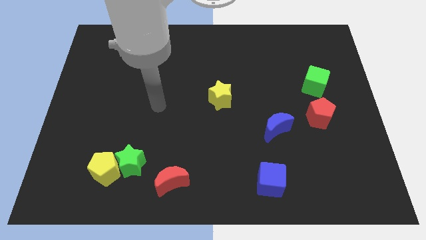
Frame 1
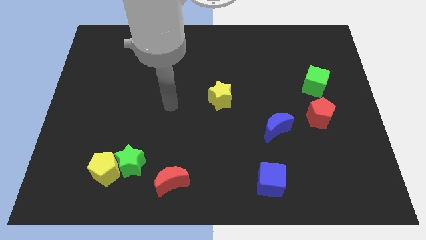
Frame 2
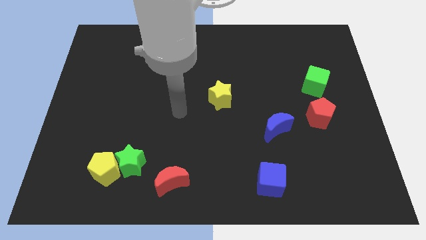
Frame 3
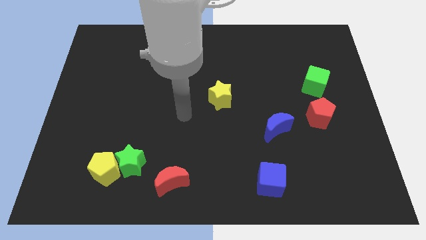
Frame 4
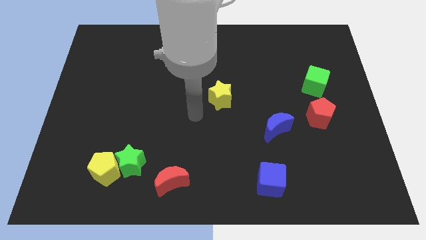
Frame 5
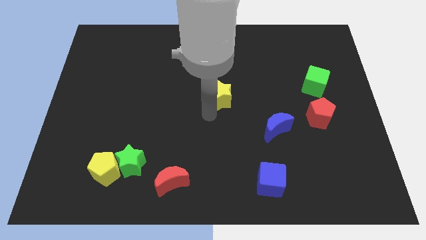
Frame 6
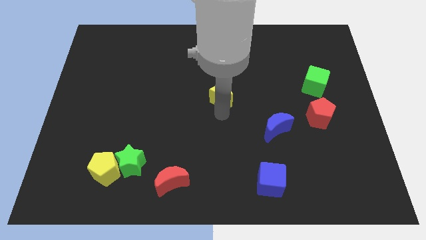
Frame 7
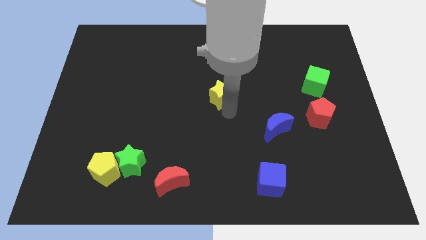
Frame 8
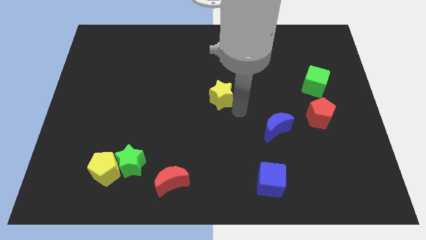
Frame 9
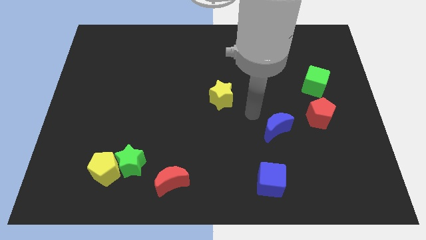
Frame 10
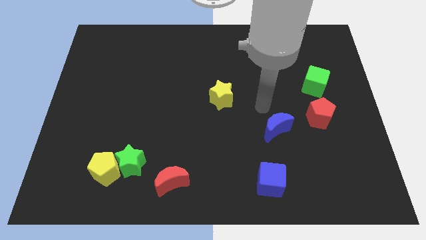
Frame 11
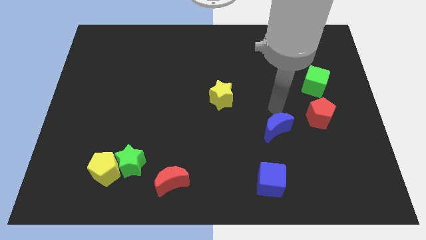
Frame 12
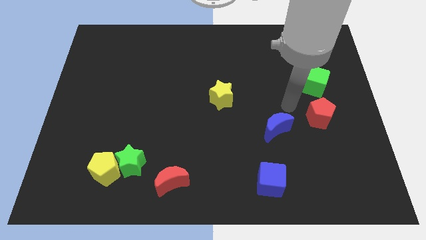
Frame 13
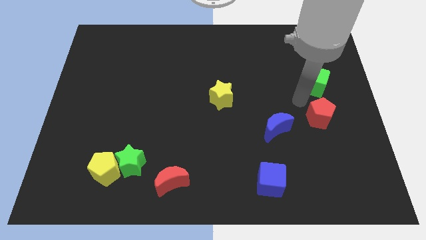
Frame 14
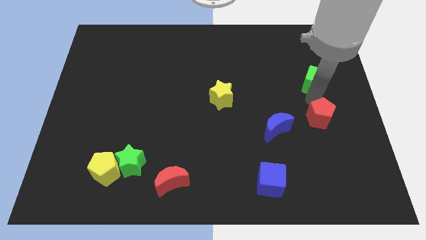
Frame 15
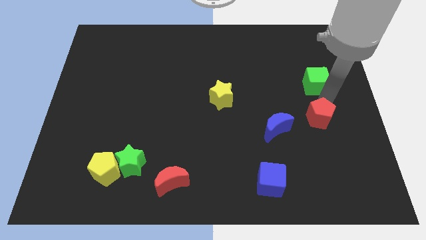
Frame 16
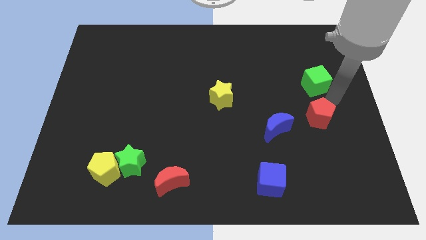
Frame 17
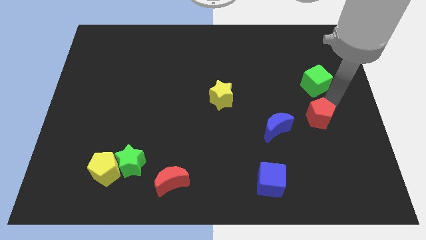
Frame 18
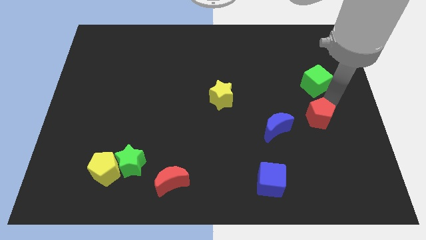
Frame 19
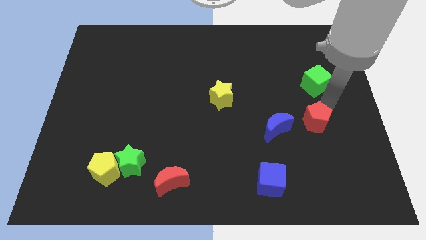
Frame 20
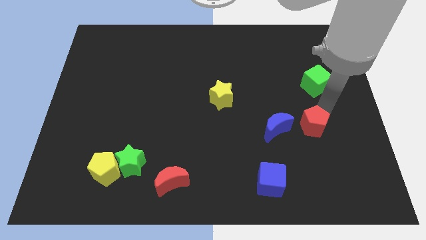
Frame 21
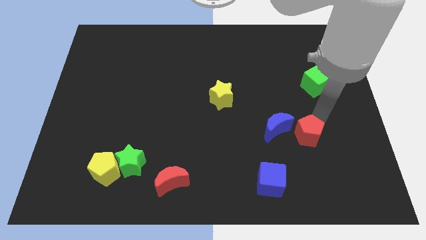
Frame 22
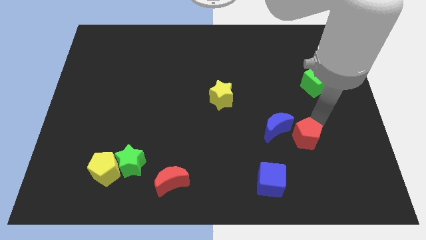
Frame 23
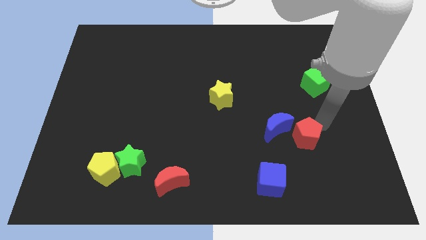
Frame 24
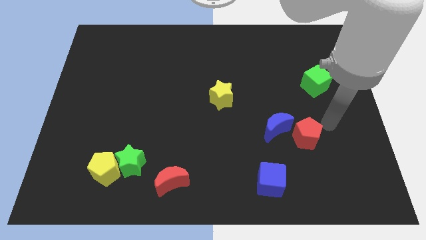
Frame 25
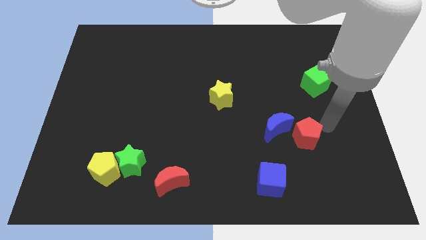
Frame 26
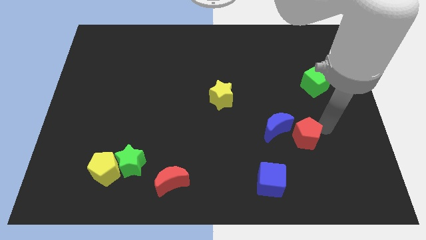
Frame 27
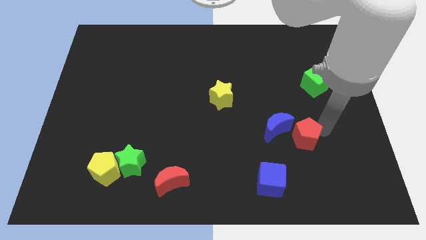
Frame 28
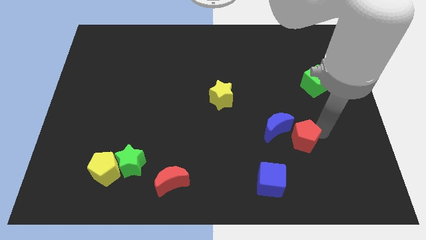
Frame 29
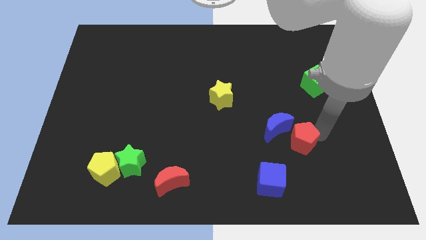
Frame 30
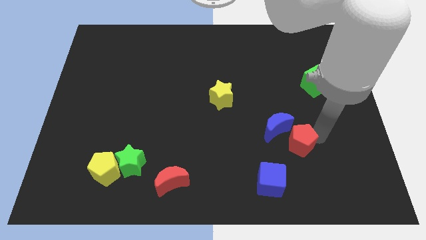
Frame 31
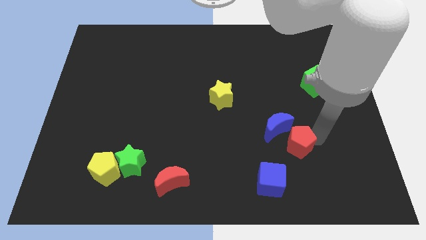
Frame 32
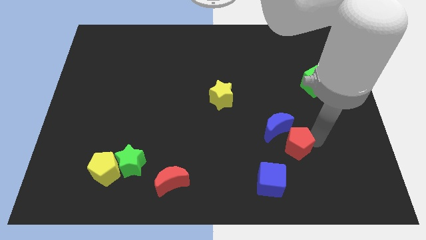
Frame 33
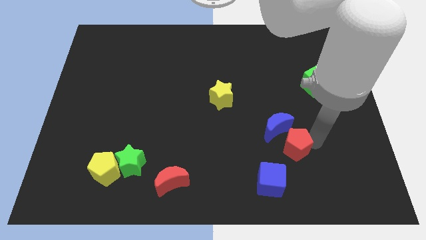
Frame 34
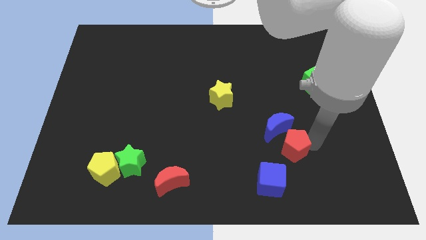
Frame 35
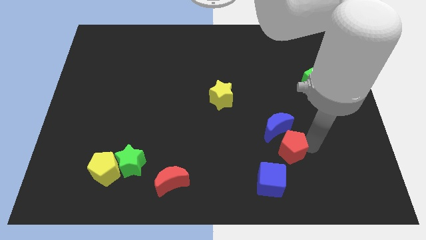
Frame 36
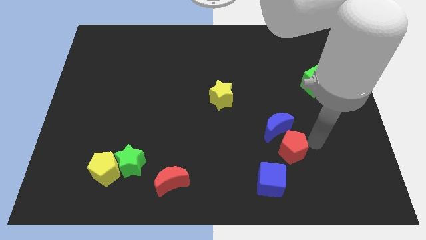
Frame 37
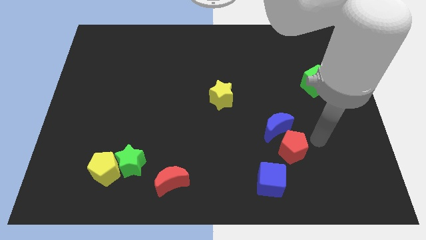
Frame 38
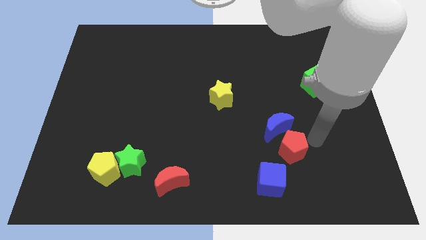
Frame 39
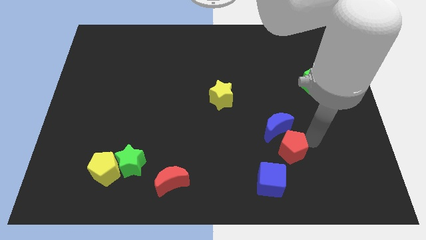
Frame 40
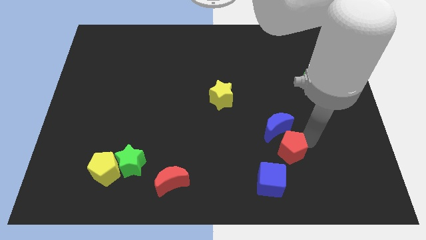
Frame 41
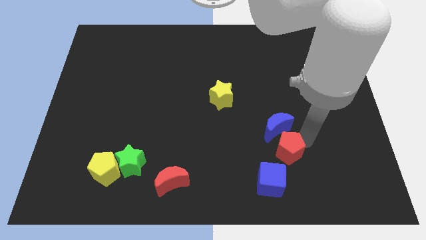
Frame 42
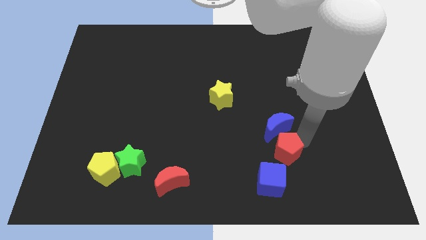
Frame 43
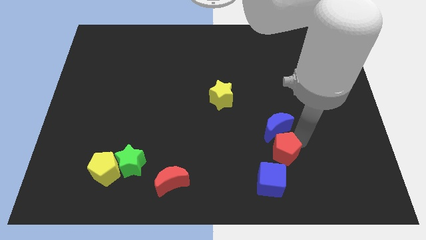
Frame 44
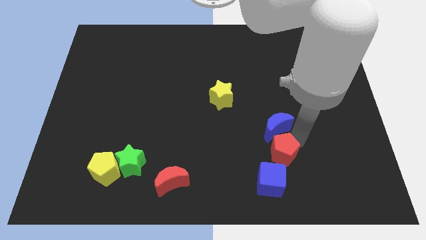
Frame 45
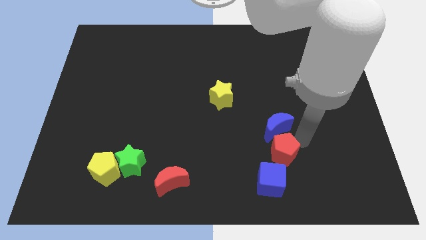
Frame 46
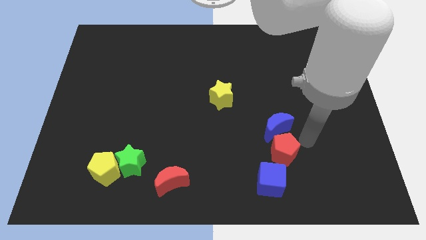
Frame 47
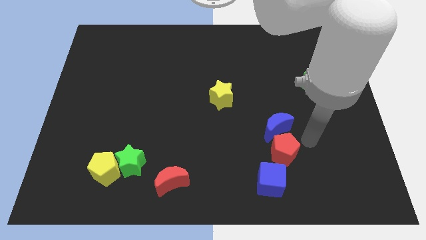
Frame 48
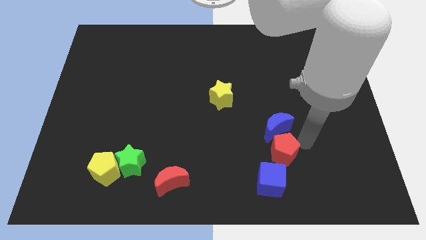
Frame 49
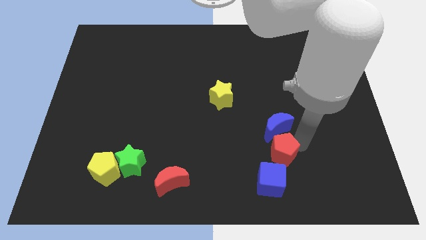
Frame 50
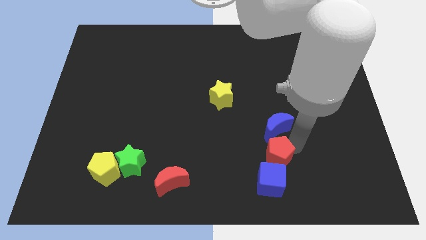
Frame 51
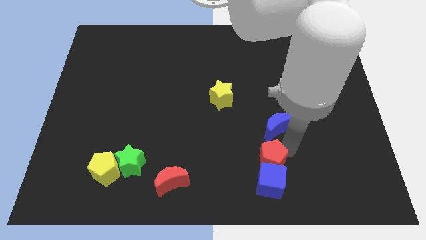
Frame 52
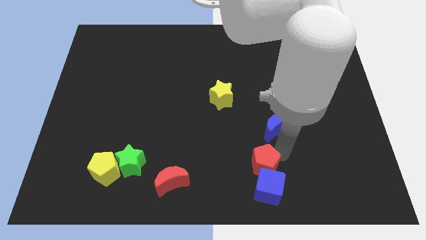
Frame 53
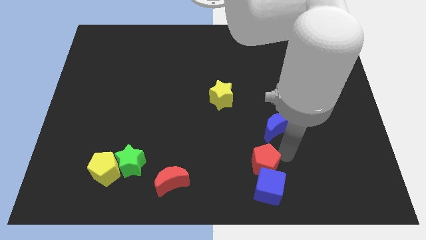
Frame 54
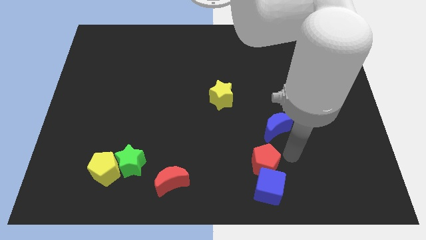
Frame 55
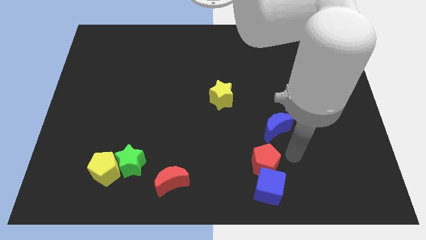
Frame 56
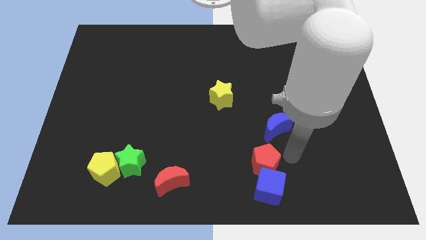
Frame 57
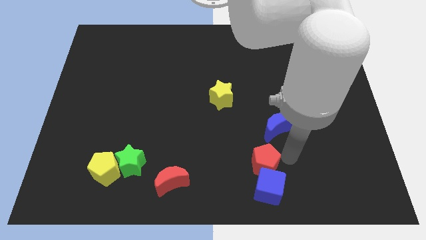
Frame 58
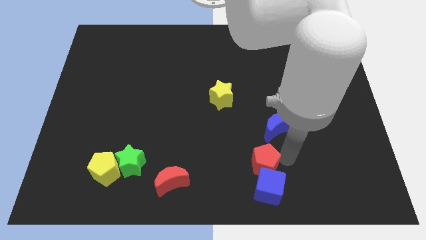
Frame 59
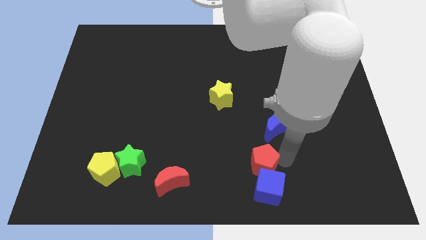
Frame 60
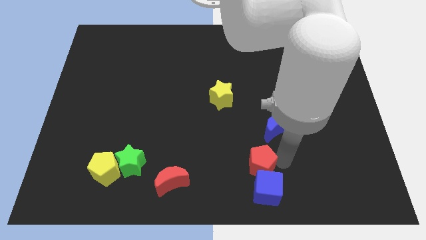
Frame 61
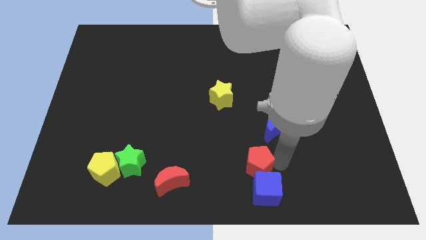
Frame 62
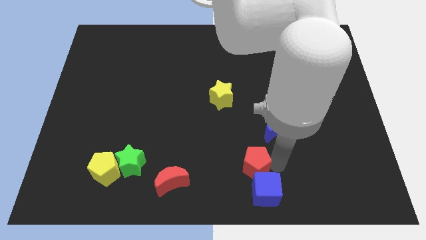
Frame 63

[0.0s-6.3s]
move the red pentagon to the bottom

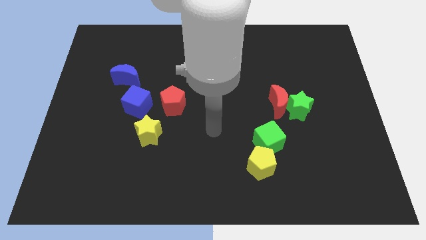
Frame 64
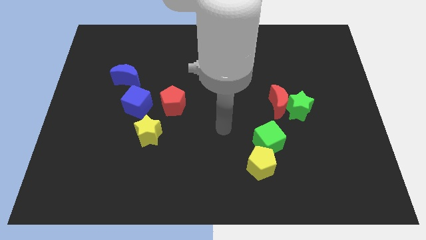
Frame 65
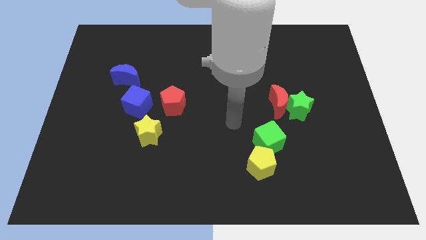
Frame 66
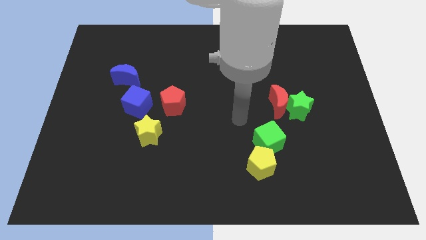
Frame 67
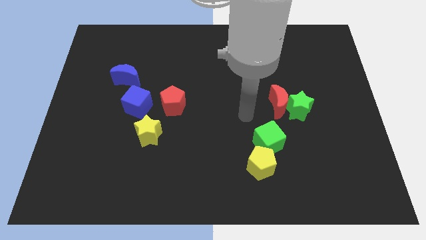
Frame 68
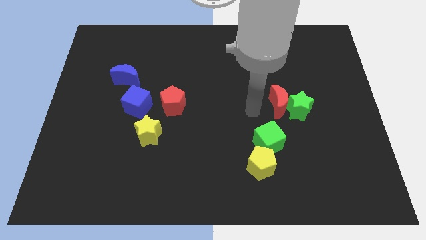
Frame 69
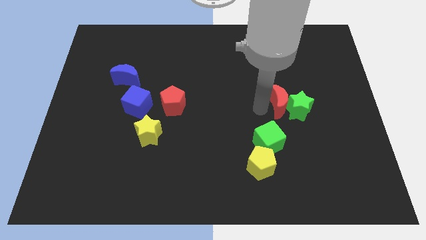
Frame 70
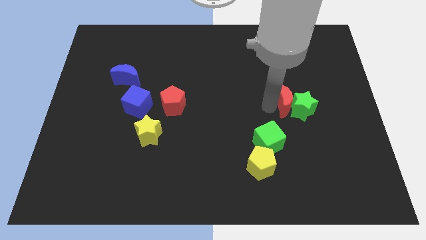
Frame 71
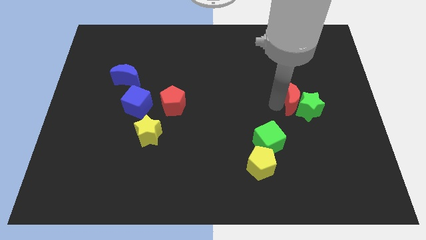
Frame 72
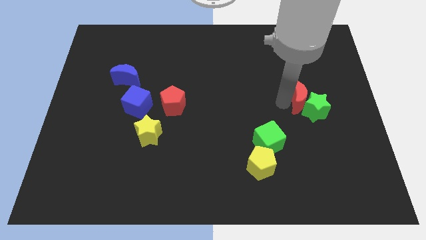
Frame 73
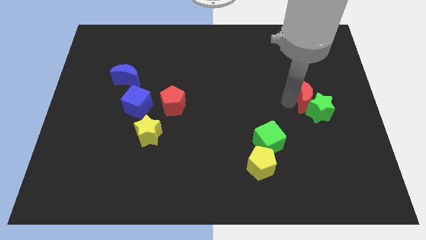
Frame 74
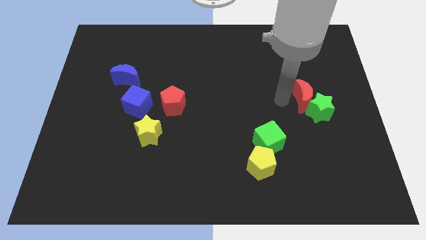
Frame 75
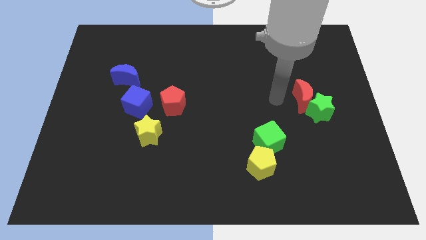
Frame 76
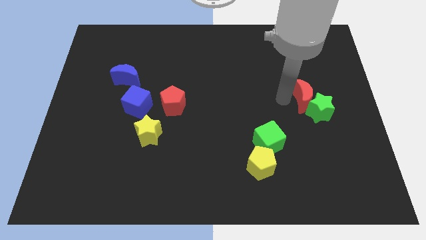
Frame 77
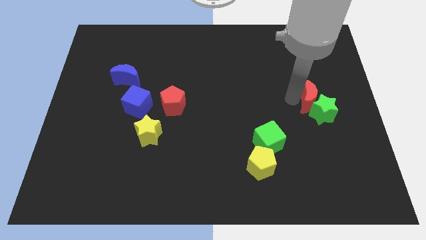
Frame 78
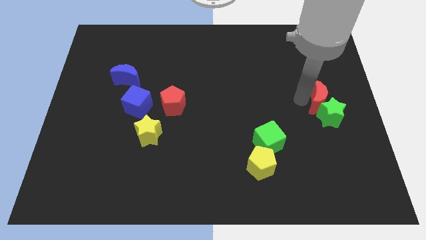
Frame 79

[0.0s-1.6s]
move the red moon to the right side
